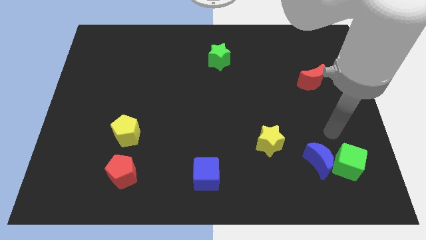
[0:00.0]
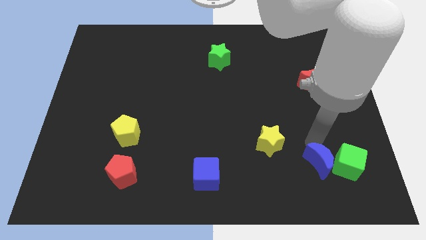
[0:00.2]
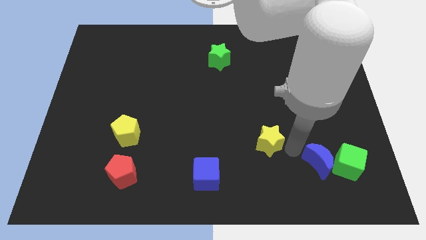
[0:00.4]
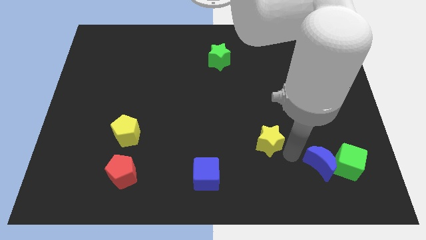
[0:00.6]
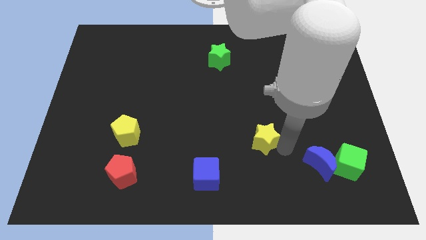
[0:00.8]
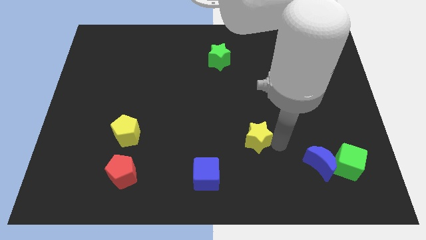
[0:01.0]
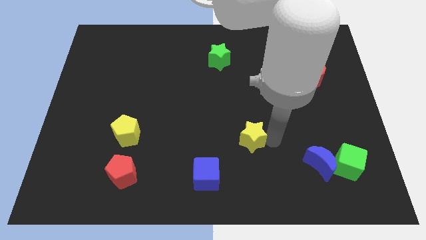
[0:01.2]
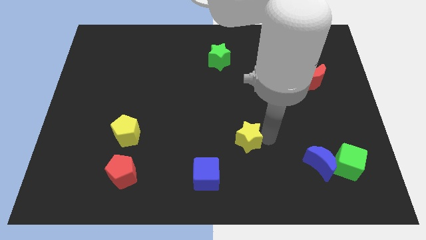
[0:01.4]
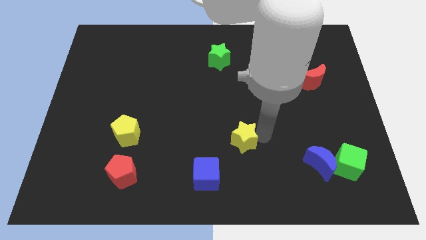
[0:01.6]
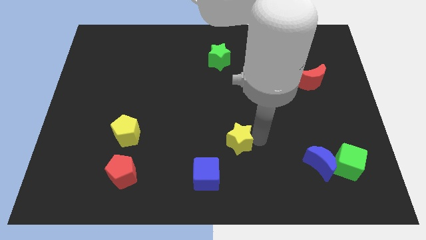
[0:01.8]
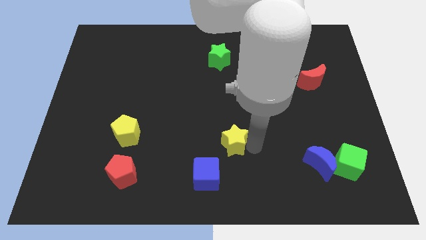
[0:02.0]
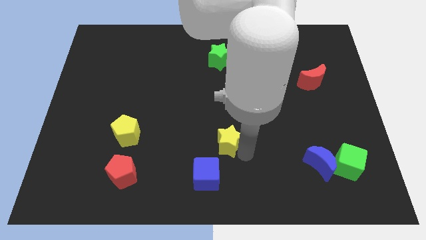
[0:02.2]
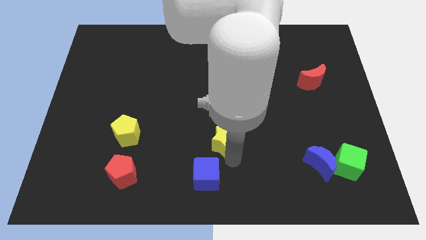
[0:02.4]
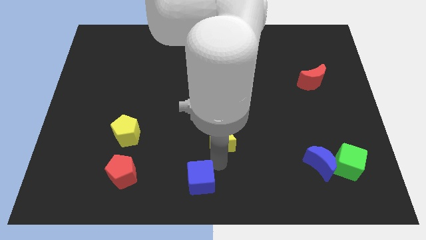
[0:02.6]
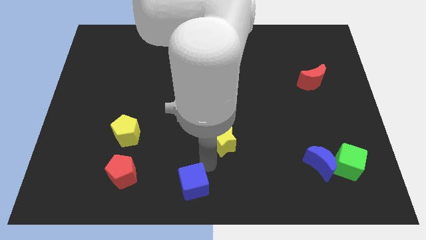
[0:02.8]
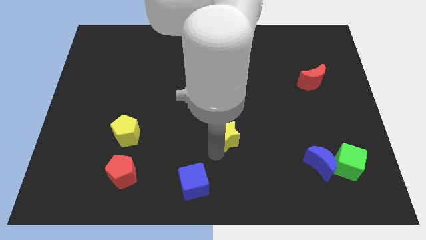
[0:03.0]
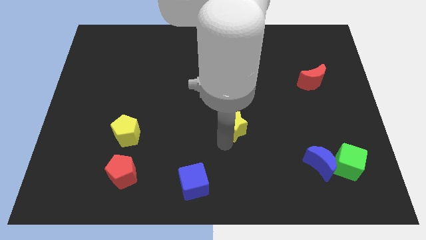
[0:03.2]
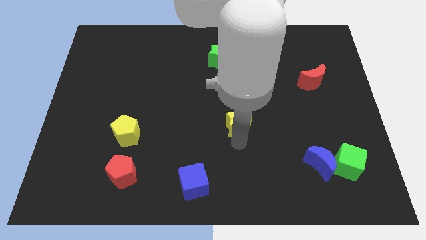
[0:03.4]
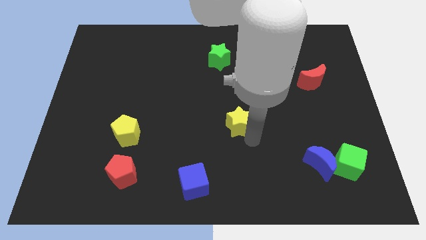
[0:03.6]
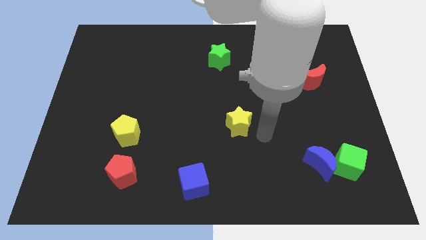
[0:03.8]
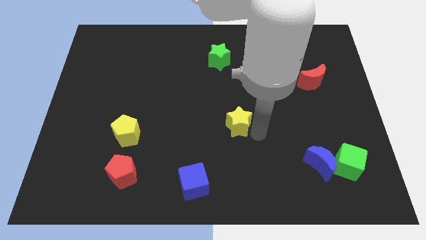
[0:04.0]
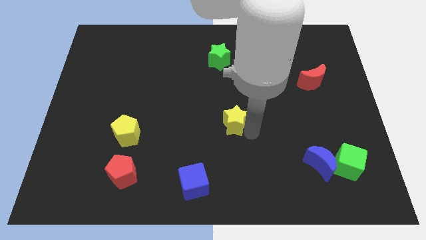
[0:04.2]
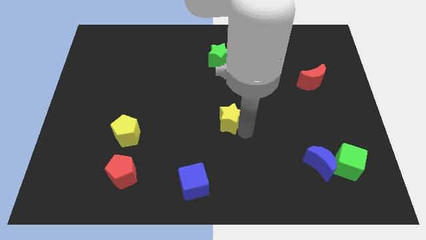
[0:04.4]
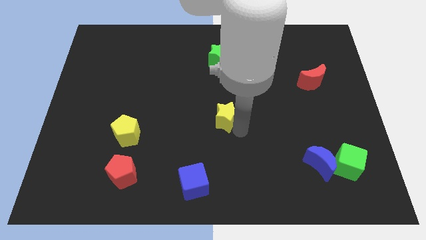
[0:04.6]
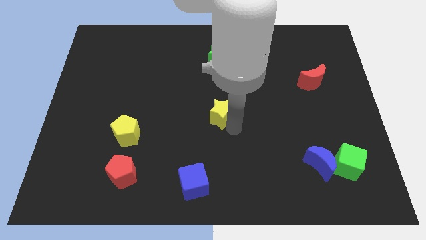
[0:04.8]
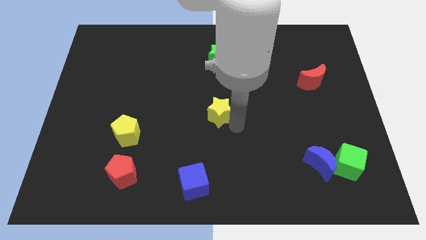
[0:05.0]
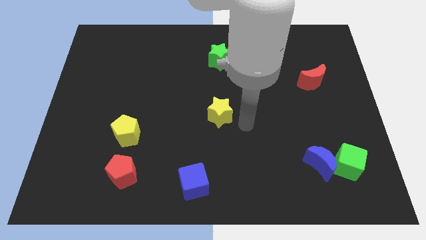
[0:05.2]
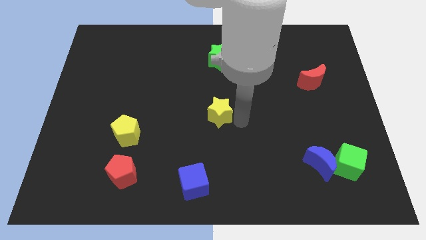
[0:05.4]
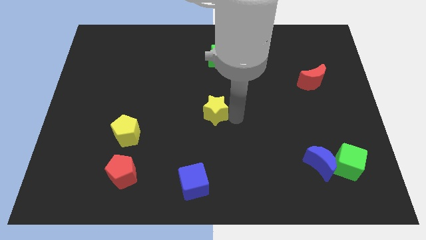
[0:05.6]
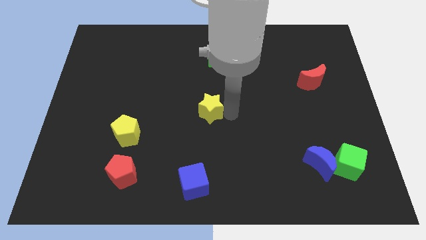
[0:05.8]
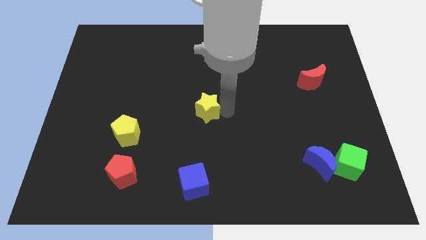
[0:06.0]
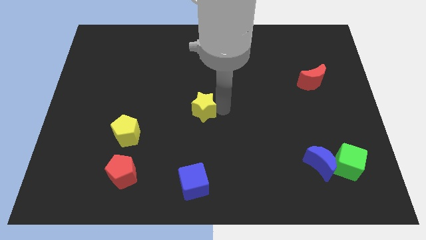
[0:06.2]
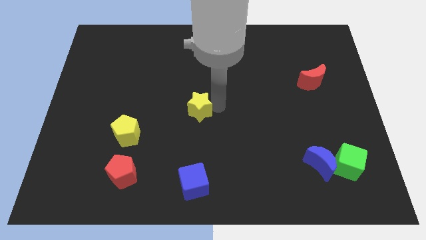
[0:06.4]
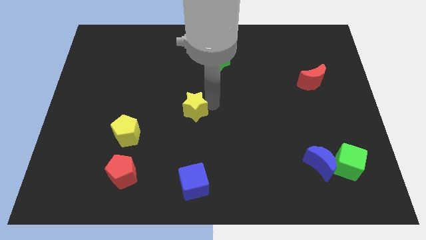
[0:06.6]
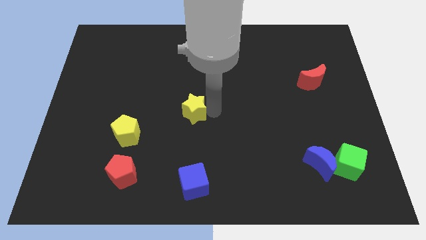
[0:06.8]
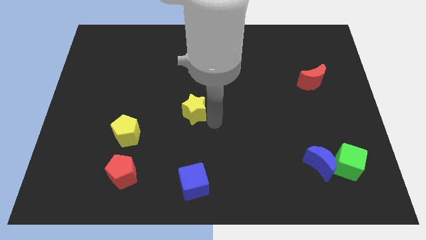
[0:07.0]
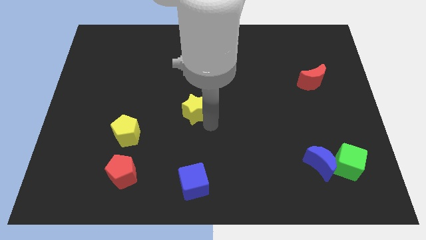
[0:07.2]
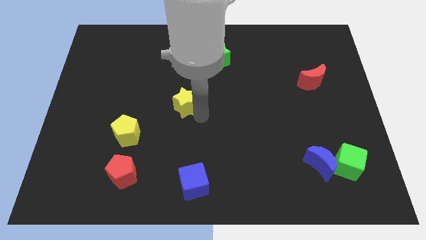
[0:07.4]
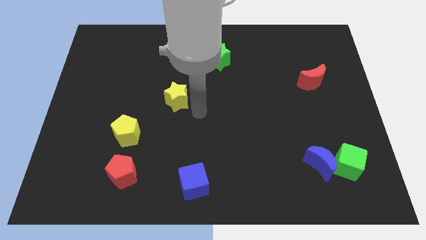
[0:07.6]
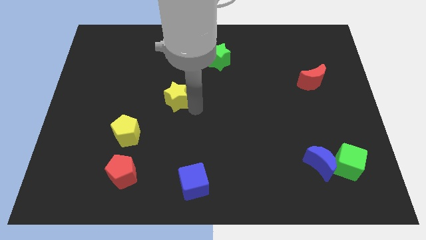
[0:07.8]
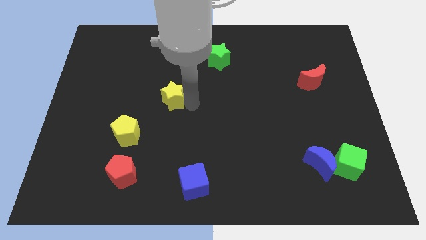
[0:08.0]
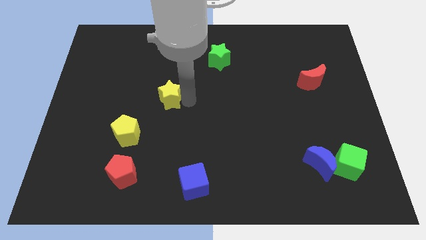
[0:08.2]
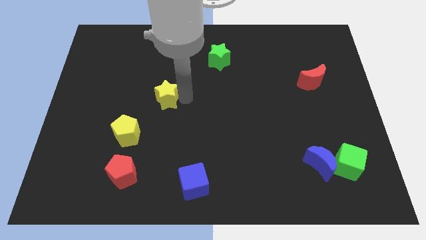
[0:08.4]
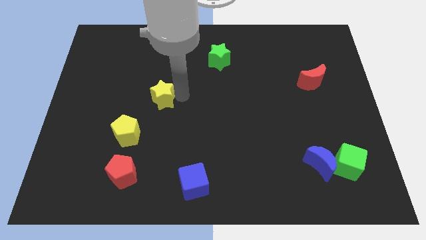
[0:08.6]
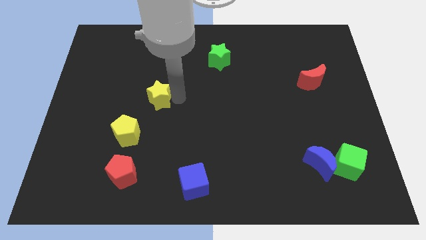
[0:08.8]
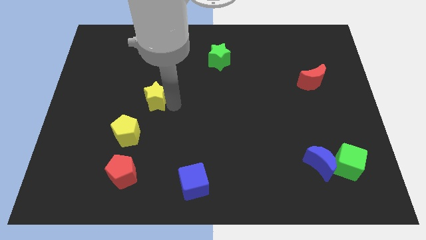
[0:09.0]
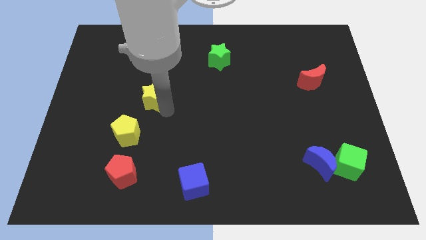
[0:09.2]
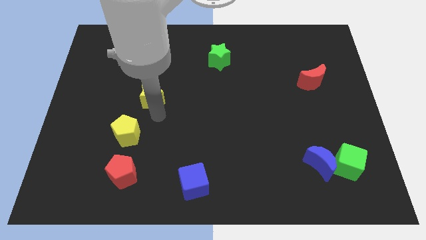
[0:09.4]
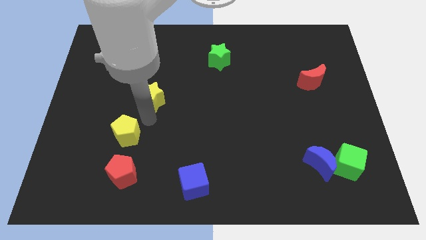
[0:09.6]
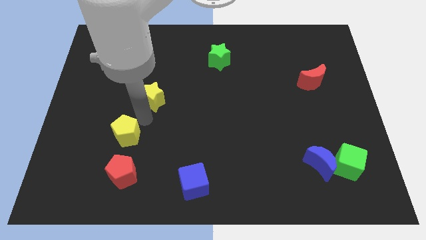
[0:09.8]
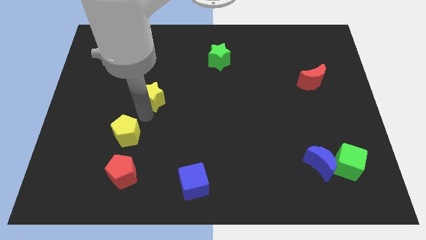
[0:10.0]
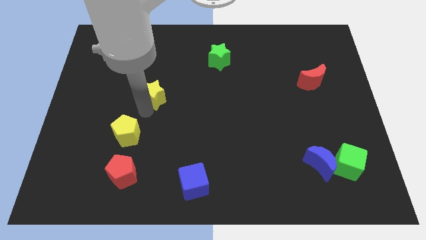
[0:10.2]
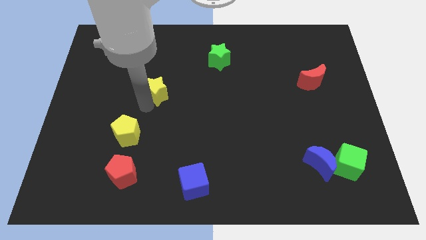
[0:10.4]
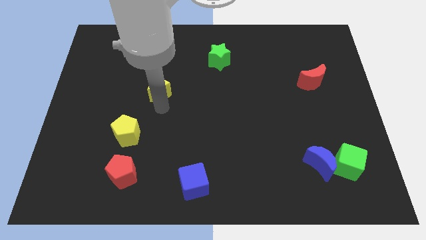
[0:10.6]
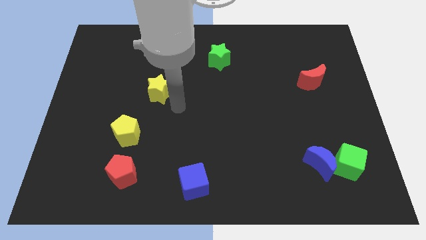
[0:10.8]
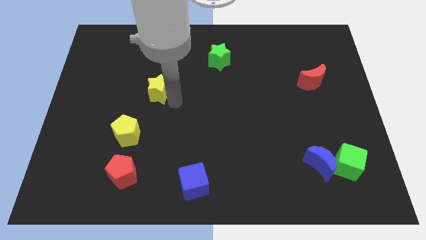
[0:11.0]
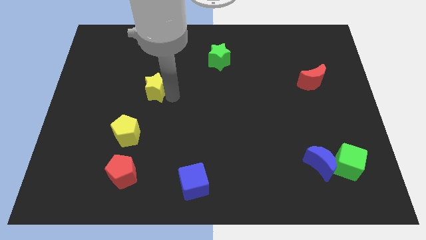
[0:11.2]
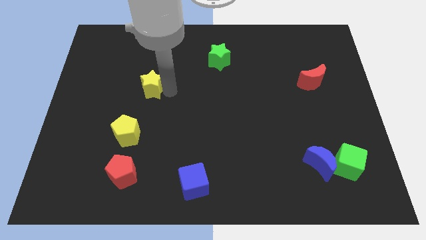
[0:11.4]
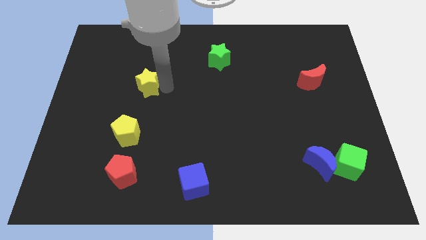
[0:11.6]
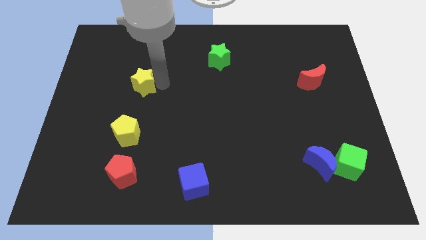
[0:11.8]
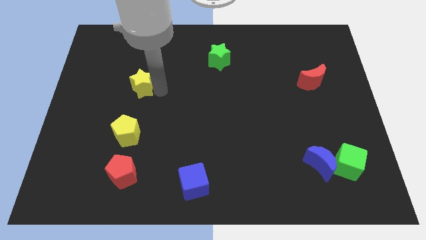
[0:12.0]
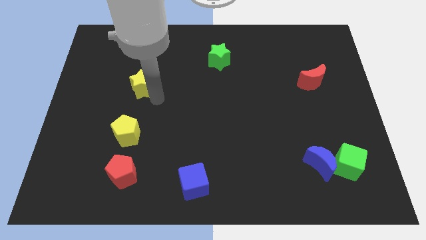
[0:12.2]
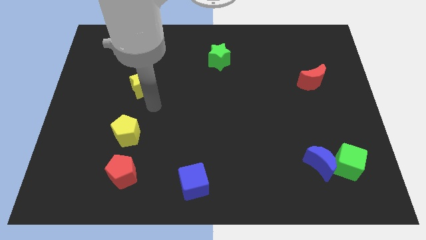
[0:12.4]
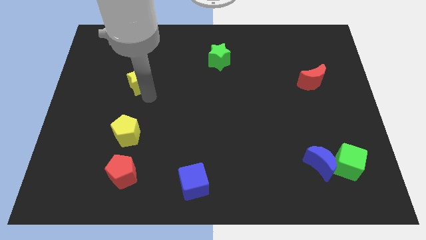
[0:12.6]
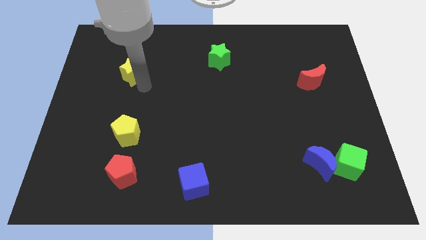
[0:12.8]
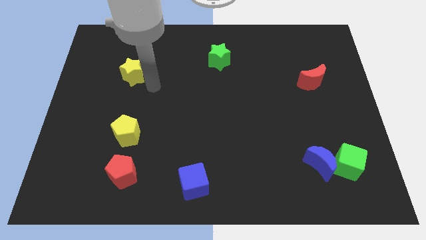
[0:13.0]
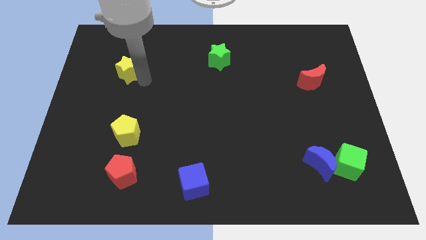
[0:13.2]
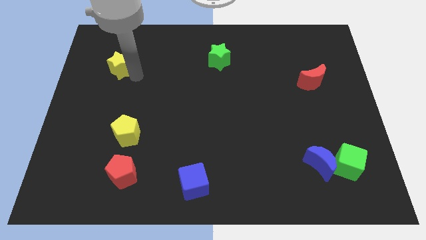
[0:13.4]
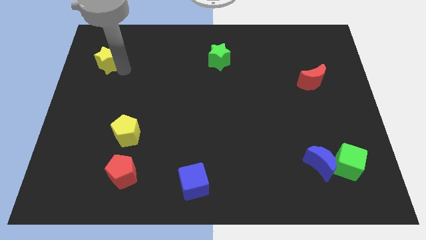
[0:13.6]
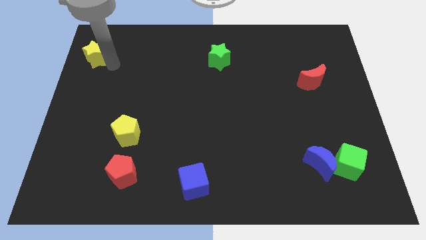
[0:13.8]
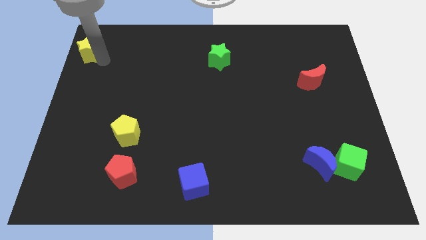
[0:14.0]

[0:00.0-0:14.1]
put the yellow star to the upper left corner
